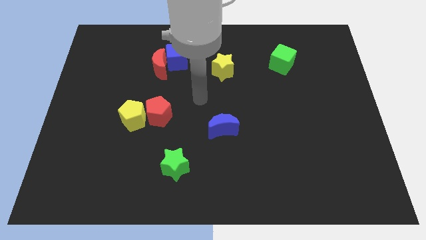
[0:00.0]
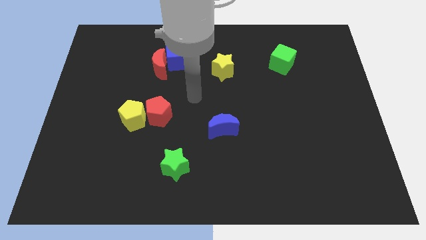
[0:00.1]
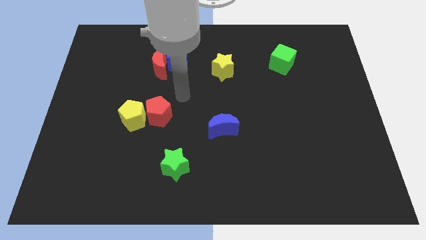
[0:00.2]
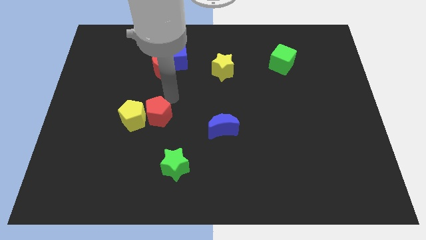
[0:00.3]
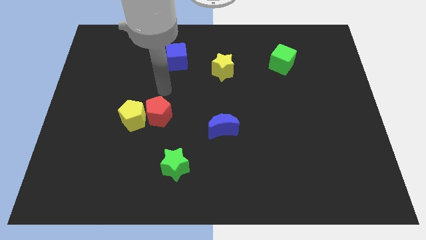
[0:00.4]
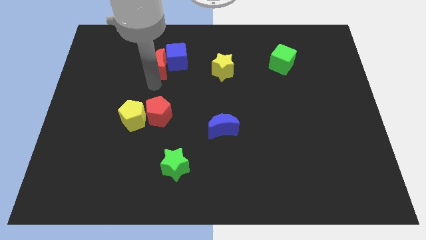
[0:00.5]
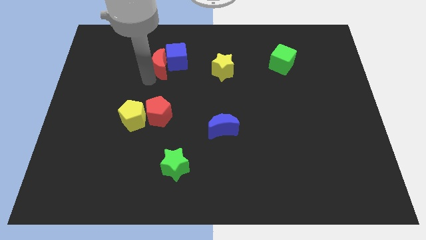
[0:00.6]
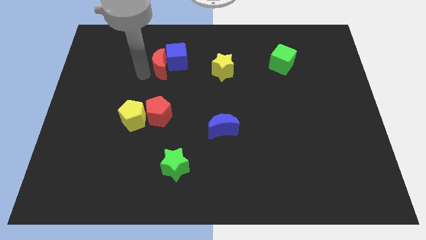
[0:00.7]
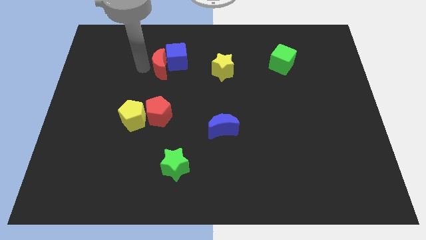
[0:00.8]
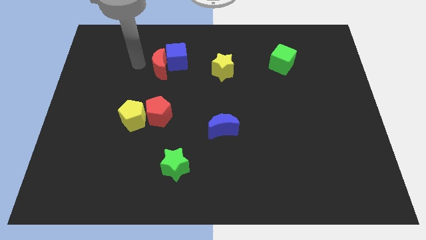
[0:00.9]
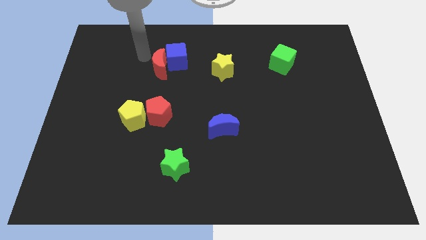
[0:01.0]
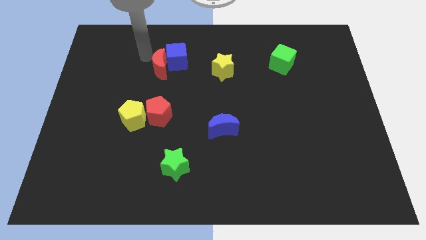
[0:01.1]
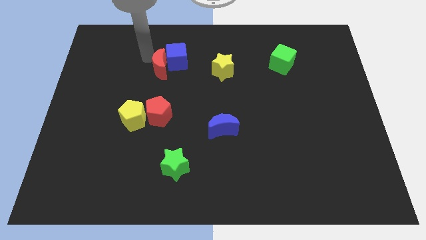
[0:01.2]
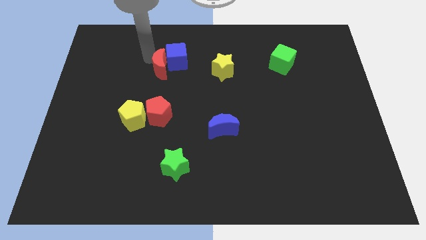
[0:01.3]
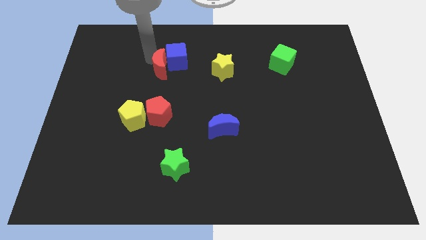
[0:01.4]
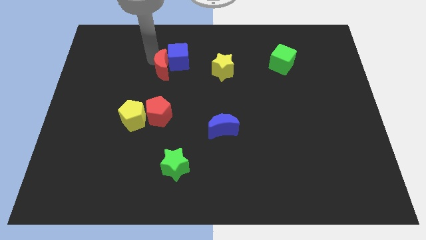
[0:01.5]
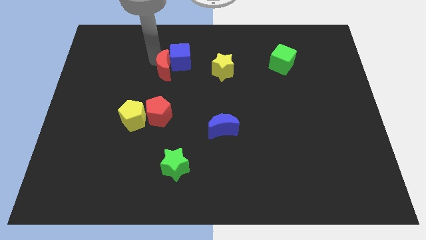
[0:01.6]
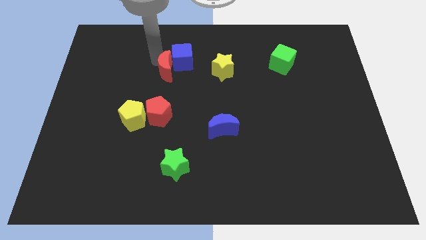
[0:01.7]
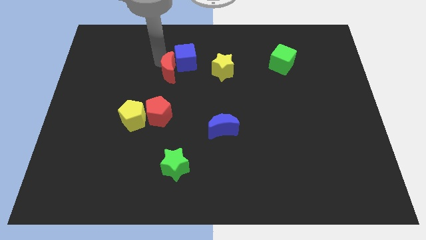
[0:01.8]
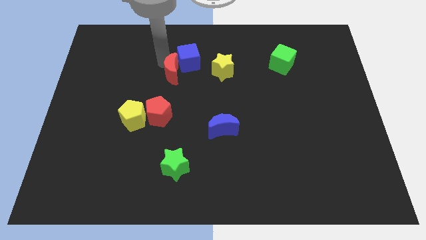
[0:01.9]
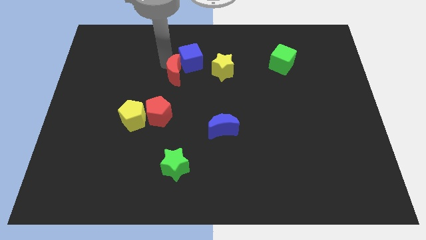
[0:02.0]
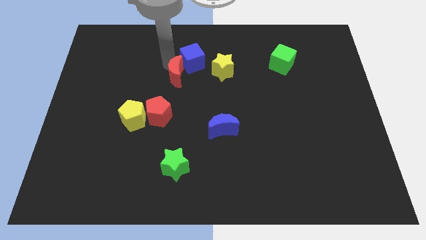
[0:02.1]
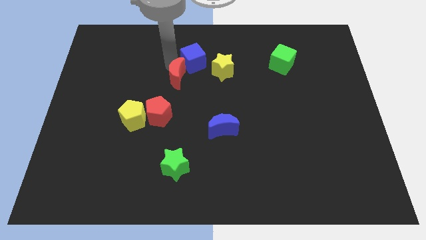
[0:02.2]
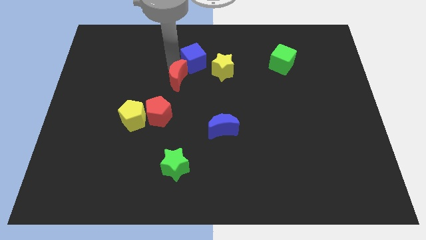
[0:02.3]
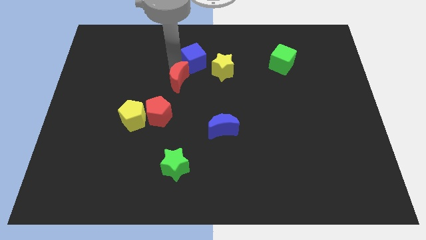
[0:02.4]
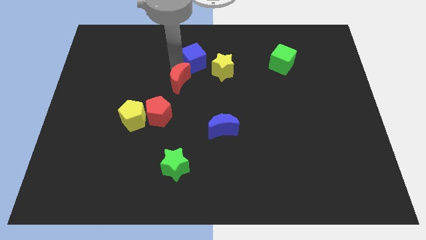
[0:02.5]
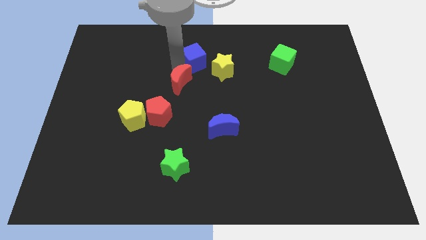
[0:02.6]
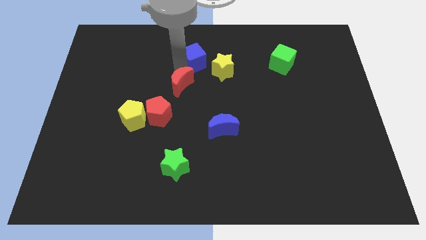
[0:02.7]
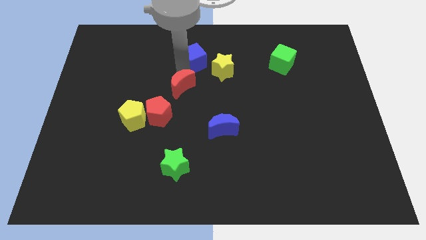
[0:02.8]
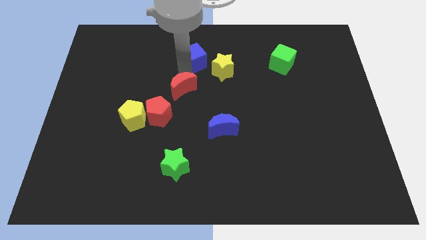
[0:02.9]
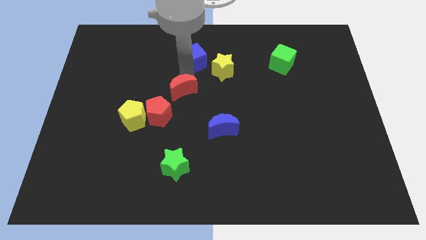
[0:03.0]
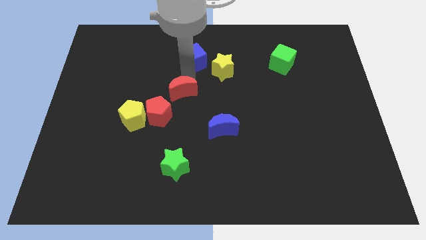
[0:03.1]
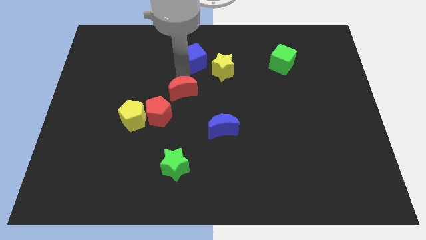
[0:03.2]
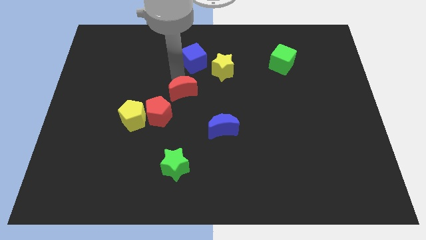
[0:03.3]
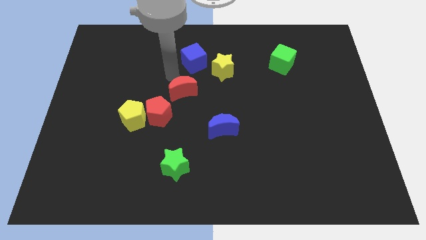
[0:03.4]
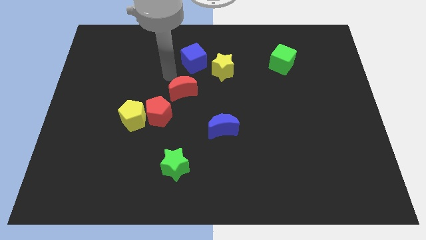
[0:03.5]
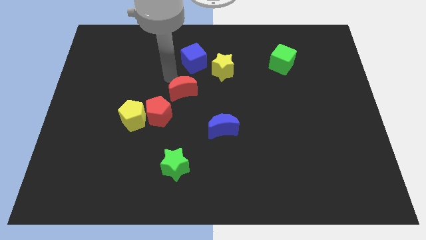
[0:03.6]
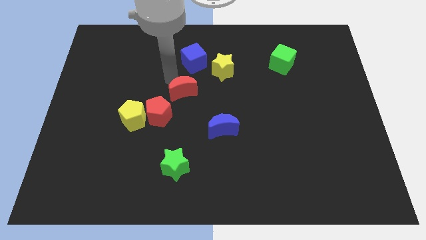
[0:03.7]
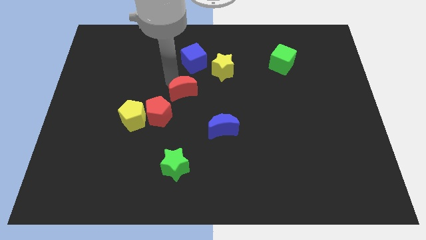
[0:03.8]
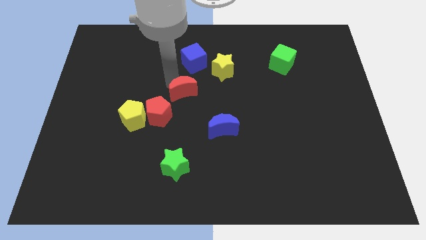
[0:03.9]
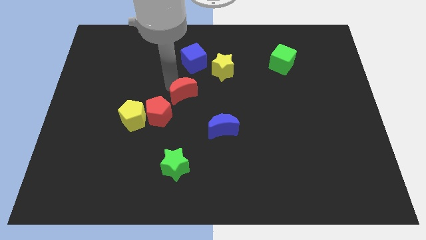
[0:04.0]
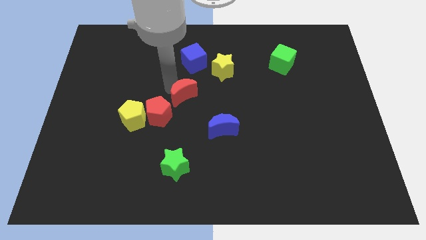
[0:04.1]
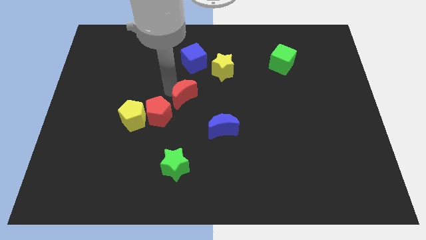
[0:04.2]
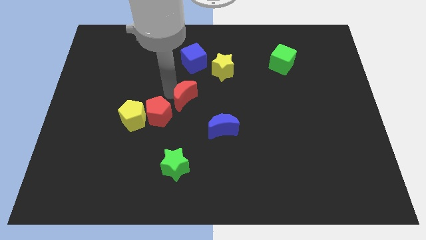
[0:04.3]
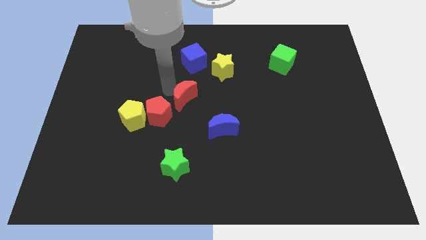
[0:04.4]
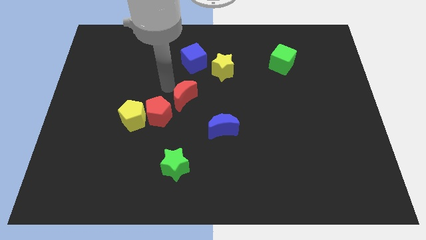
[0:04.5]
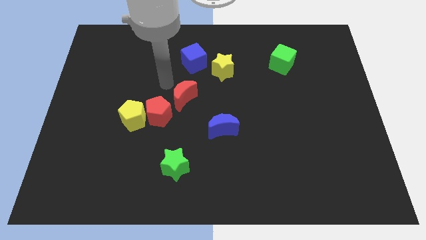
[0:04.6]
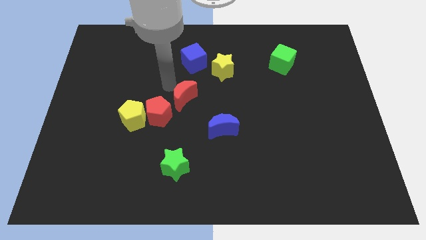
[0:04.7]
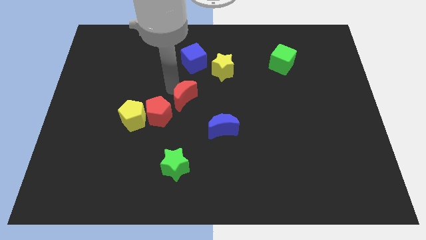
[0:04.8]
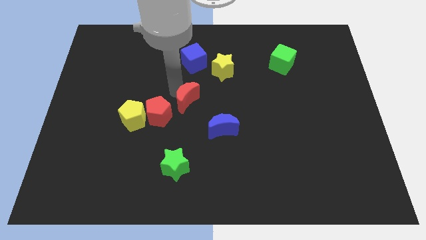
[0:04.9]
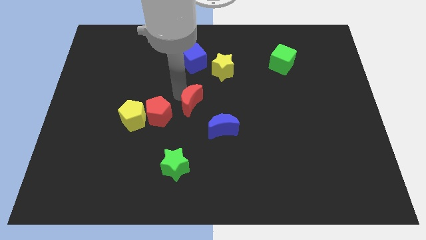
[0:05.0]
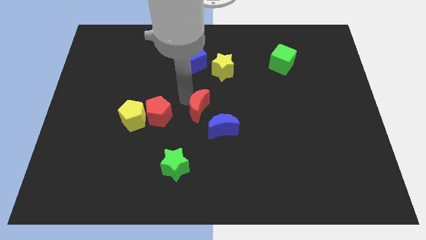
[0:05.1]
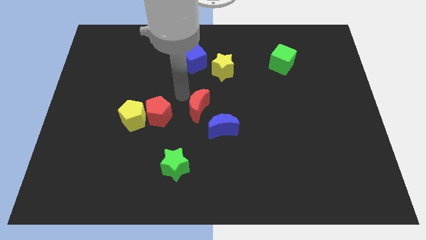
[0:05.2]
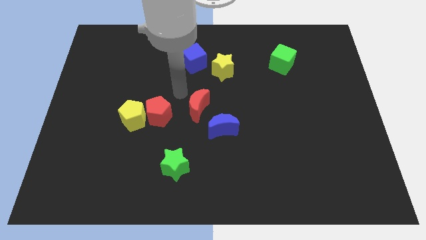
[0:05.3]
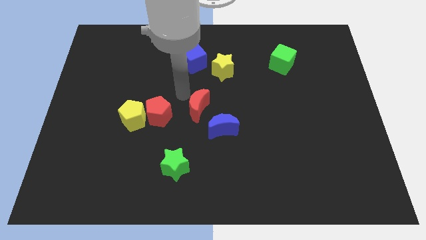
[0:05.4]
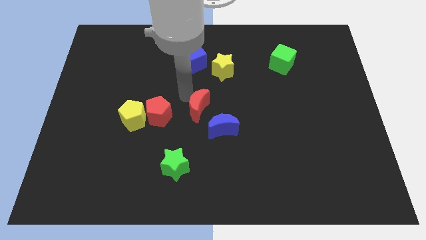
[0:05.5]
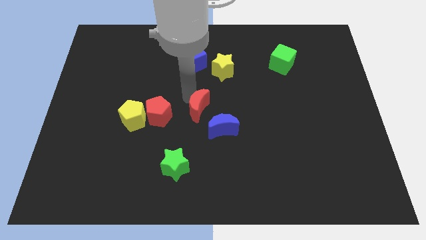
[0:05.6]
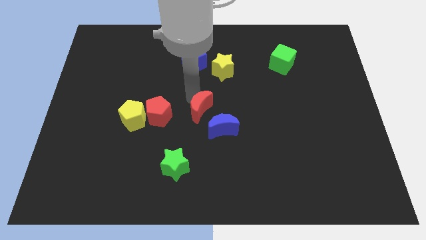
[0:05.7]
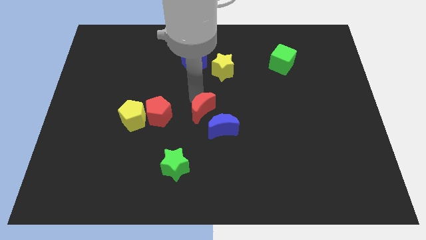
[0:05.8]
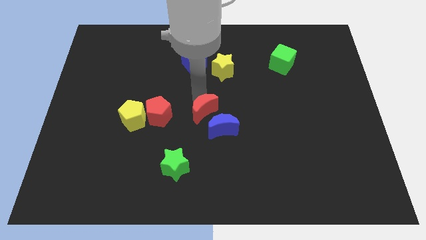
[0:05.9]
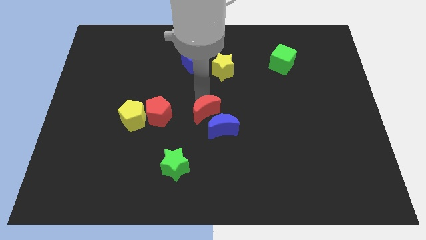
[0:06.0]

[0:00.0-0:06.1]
put the red moon to the blue moon

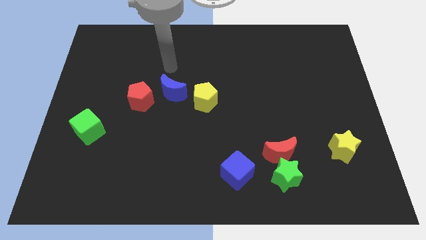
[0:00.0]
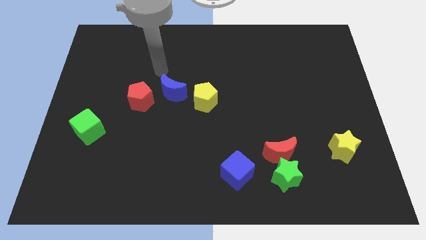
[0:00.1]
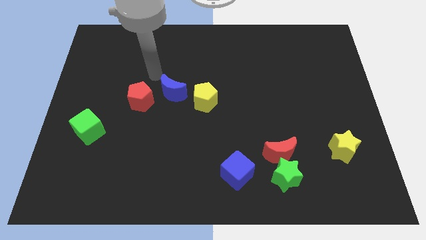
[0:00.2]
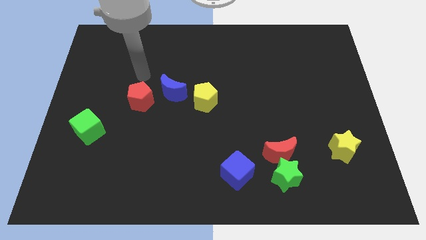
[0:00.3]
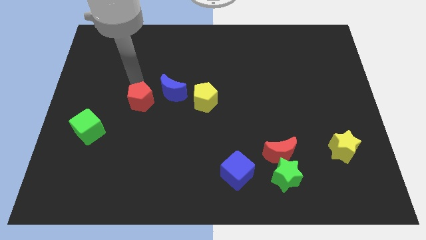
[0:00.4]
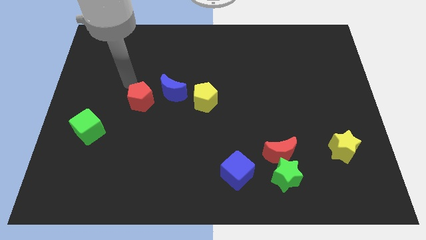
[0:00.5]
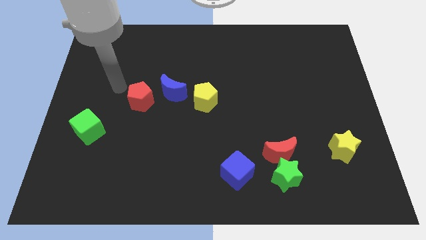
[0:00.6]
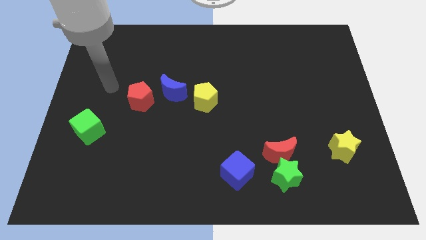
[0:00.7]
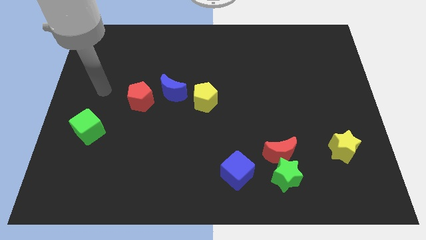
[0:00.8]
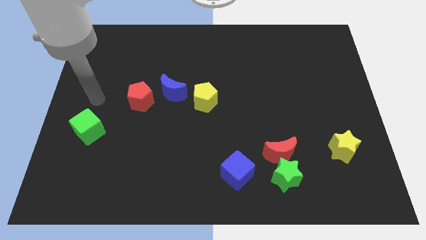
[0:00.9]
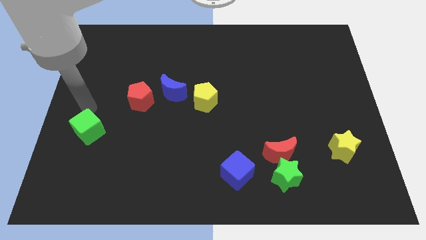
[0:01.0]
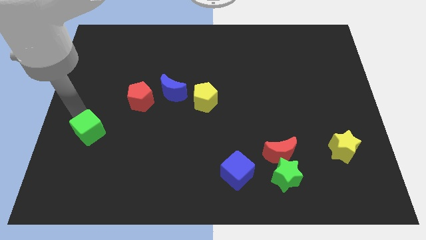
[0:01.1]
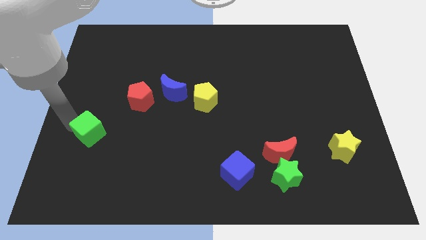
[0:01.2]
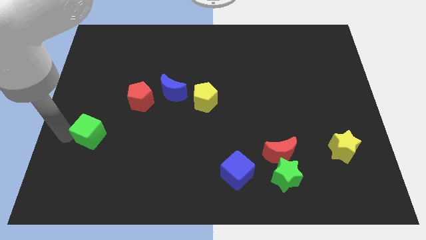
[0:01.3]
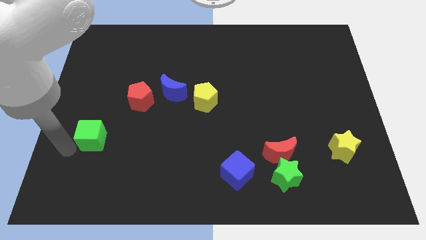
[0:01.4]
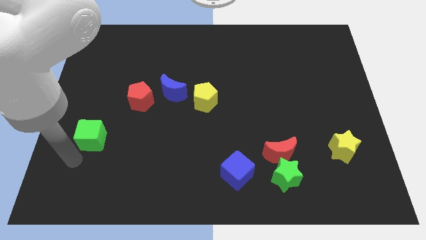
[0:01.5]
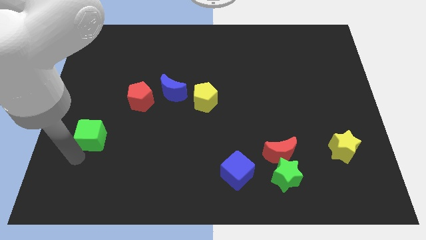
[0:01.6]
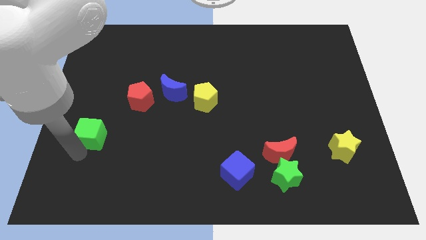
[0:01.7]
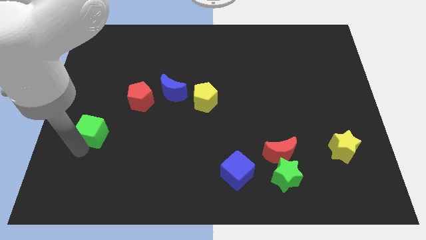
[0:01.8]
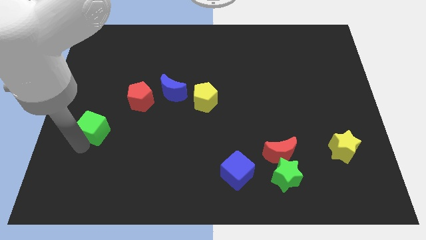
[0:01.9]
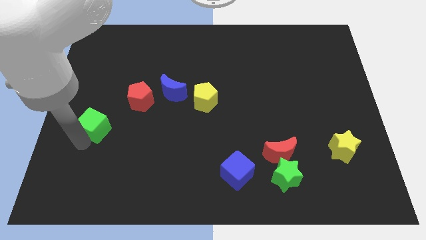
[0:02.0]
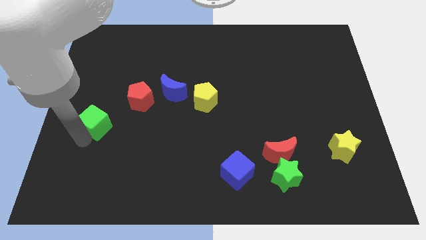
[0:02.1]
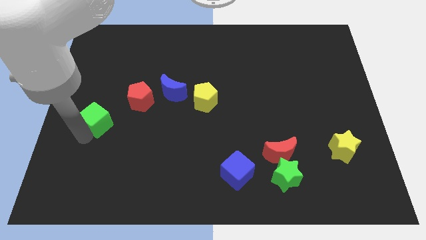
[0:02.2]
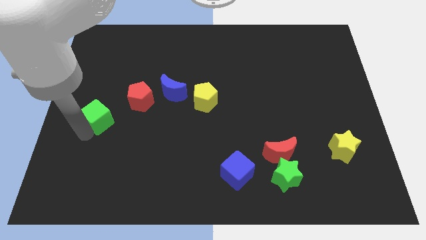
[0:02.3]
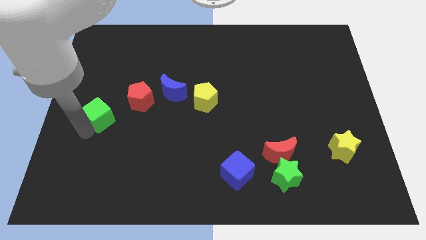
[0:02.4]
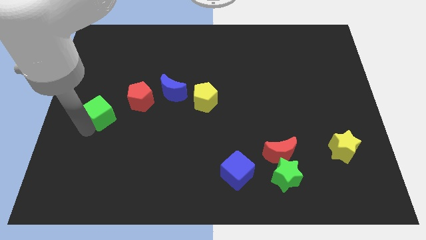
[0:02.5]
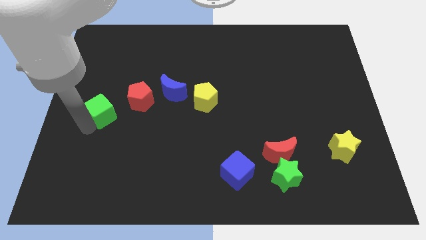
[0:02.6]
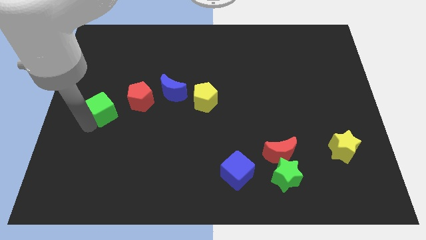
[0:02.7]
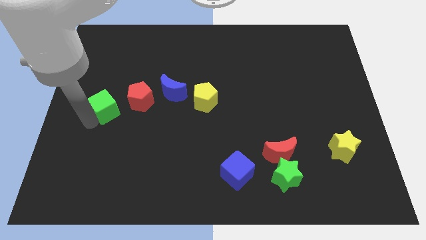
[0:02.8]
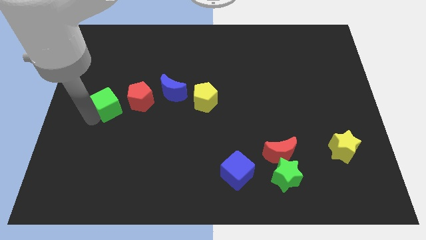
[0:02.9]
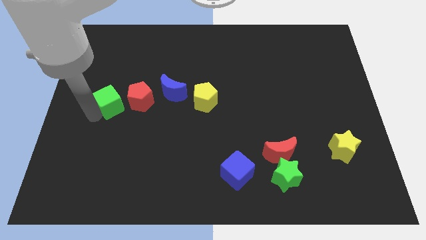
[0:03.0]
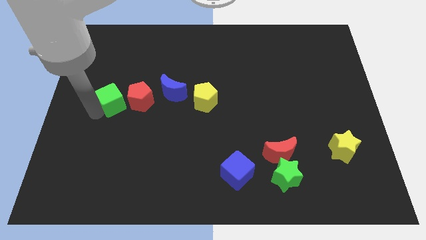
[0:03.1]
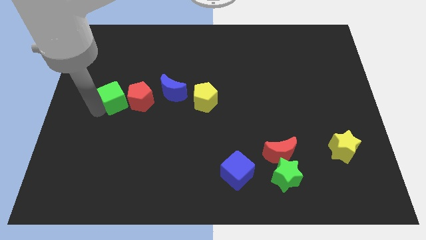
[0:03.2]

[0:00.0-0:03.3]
push the green cube towards the red pentagon
